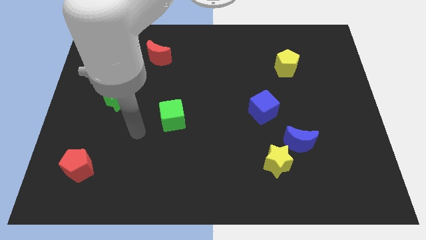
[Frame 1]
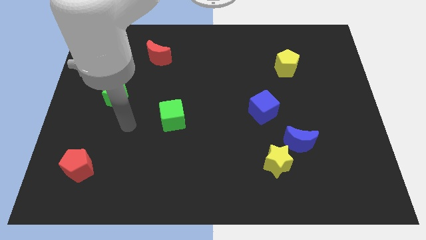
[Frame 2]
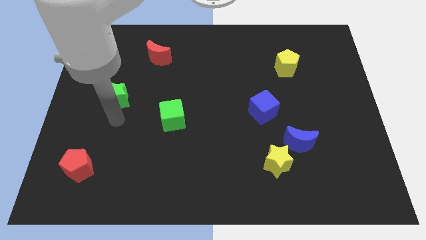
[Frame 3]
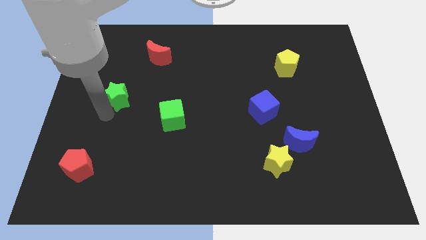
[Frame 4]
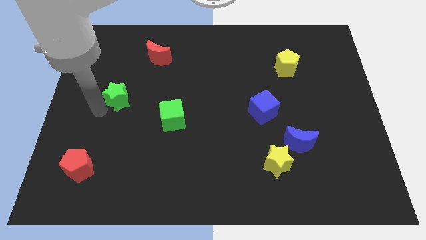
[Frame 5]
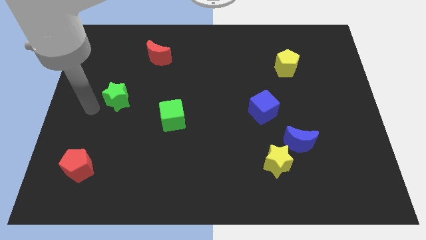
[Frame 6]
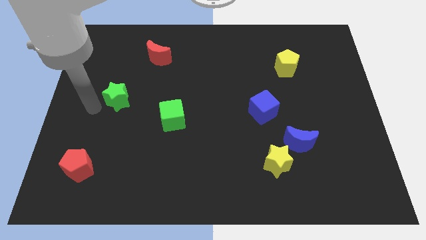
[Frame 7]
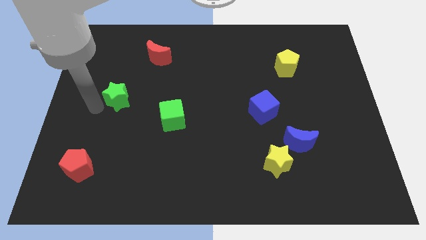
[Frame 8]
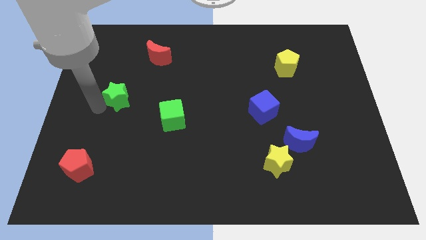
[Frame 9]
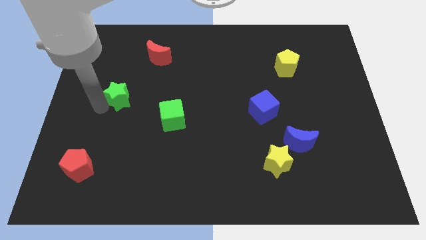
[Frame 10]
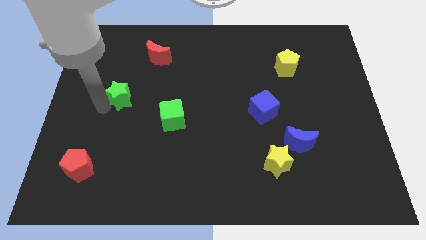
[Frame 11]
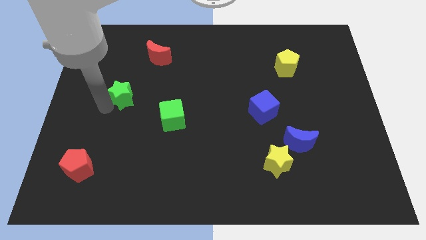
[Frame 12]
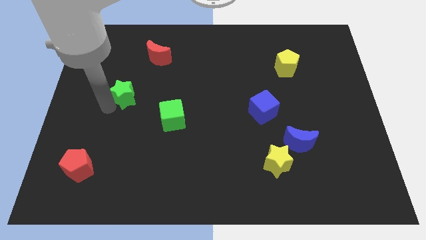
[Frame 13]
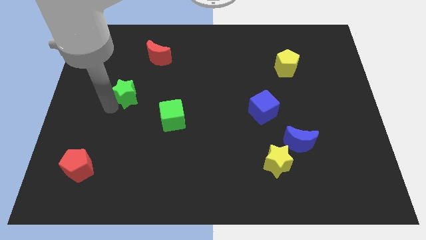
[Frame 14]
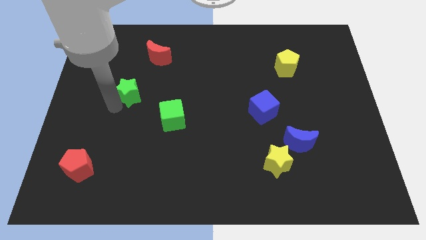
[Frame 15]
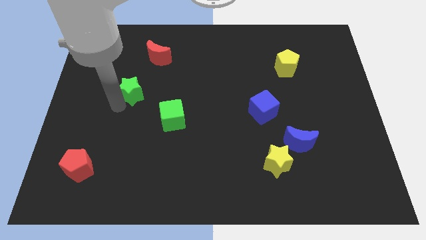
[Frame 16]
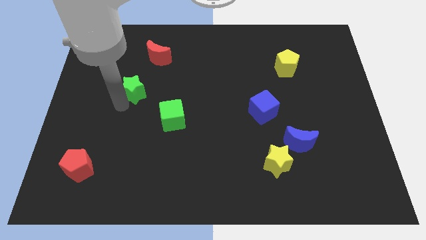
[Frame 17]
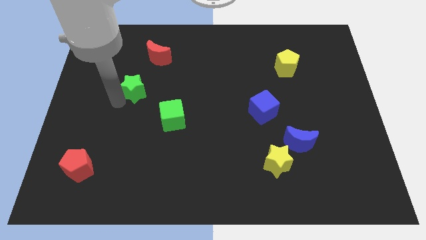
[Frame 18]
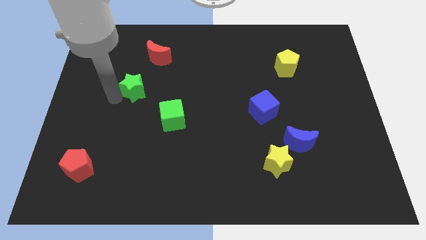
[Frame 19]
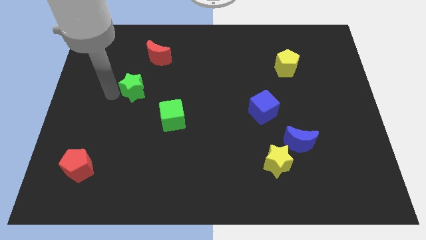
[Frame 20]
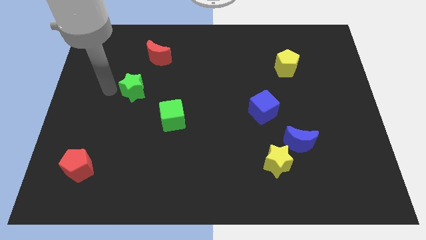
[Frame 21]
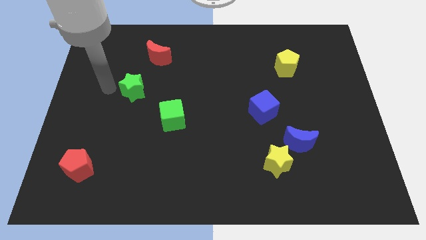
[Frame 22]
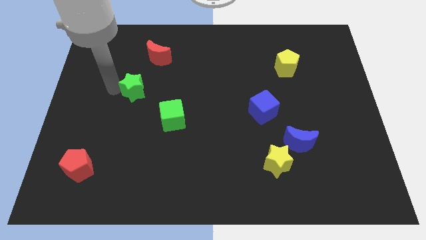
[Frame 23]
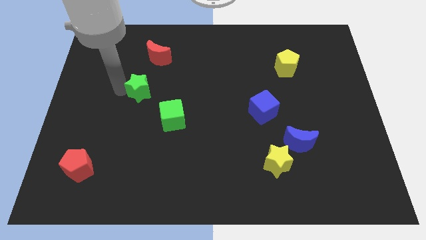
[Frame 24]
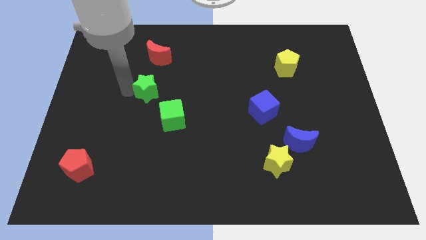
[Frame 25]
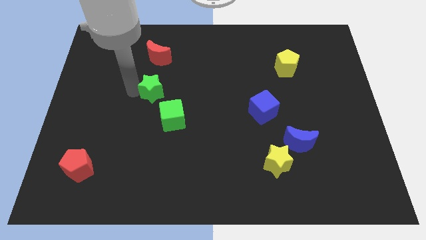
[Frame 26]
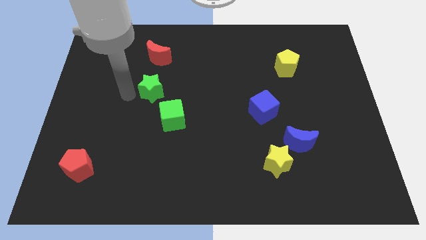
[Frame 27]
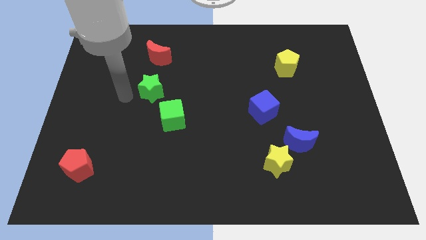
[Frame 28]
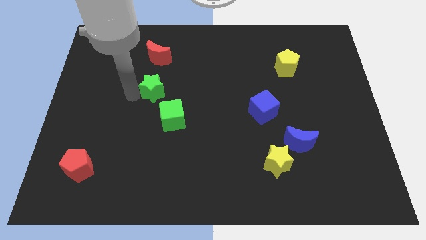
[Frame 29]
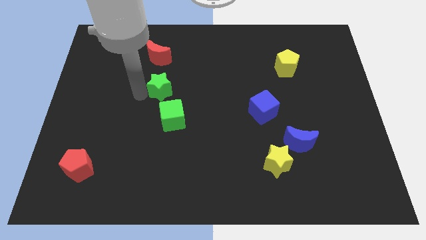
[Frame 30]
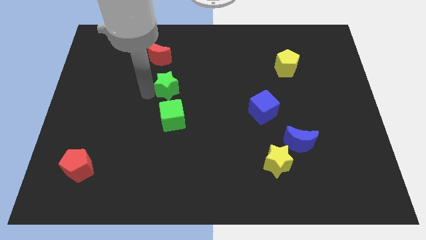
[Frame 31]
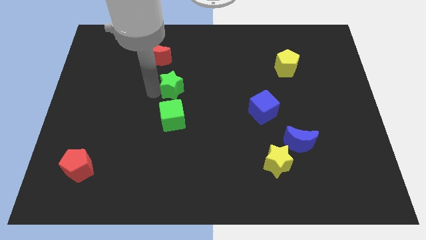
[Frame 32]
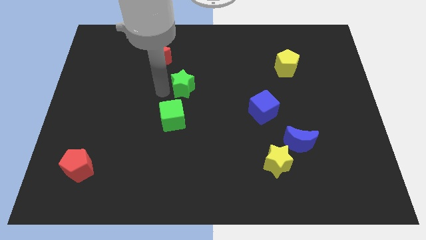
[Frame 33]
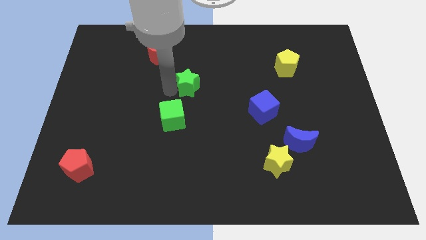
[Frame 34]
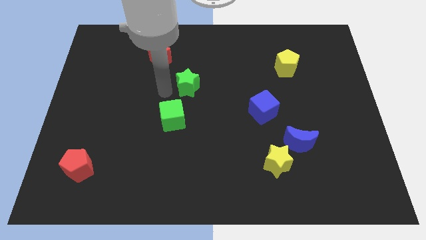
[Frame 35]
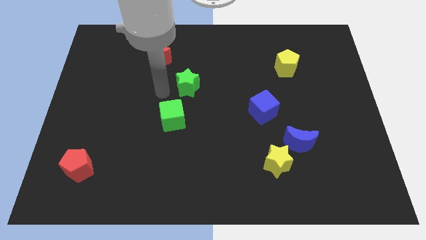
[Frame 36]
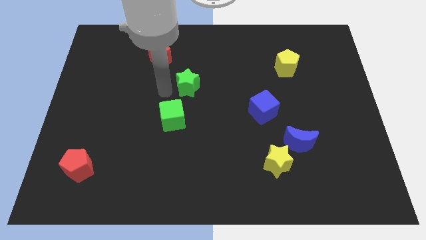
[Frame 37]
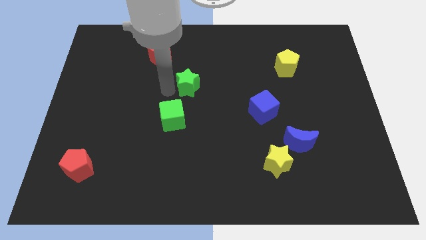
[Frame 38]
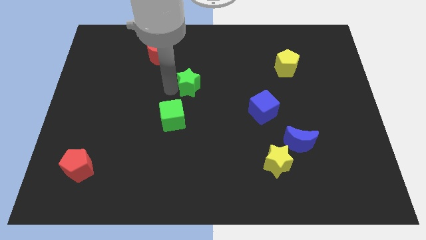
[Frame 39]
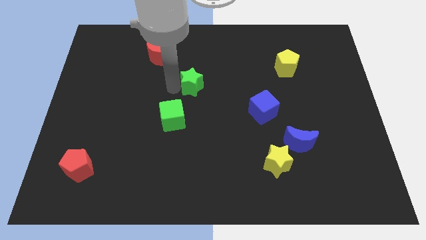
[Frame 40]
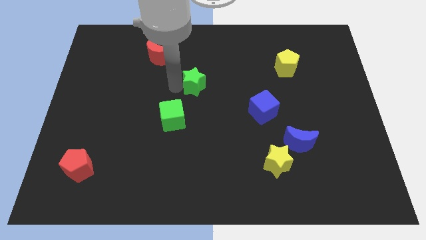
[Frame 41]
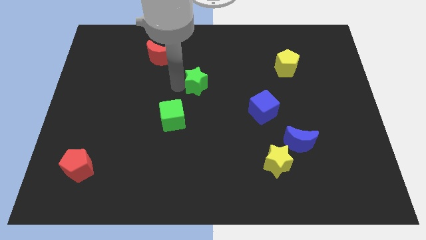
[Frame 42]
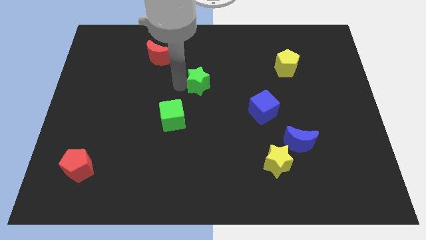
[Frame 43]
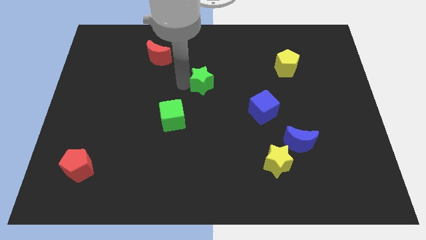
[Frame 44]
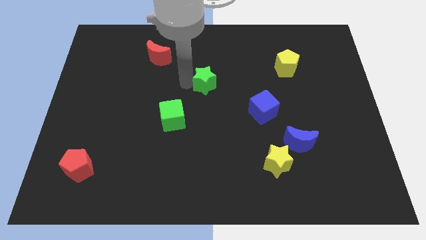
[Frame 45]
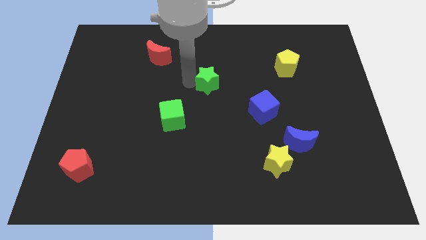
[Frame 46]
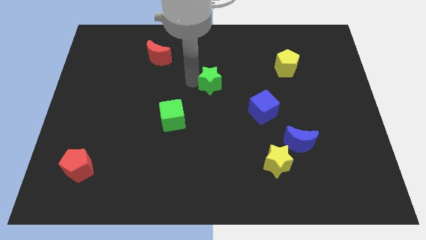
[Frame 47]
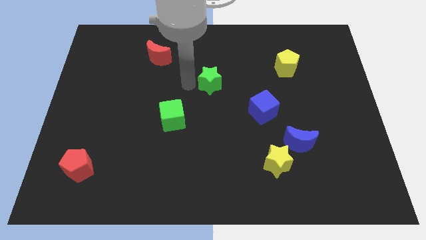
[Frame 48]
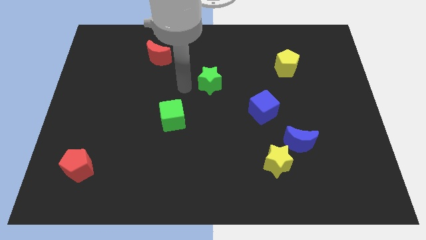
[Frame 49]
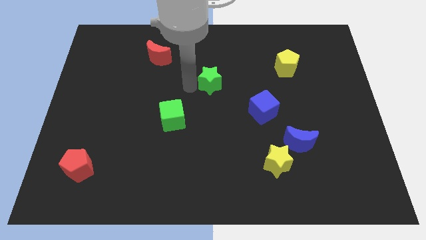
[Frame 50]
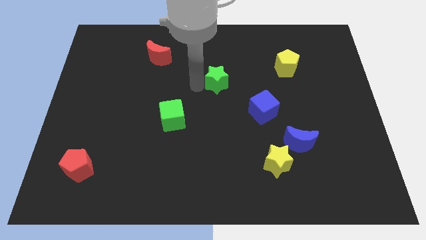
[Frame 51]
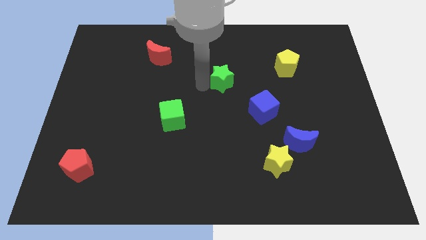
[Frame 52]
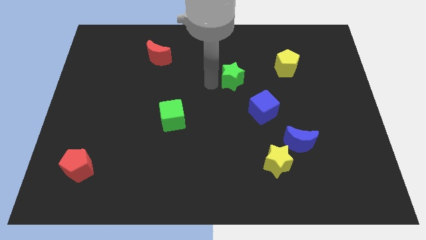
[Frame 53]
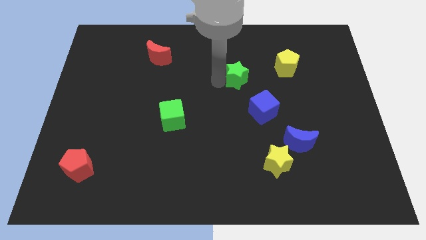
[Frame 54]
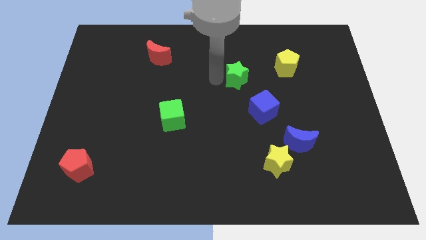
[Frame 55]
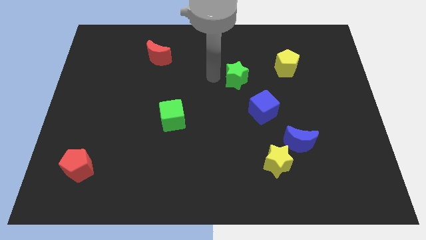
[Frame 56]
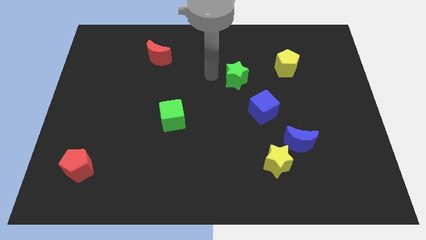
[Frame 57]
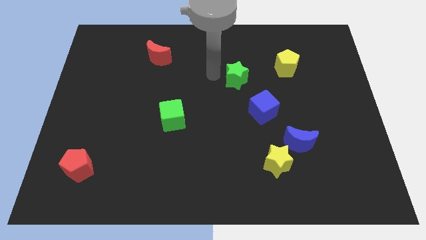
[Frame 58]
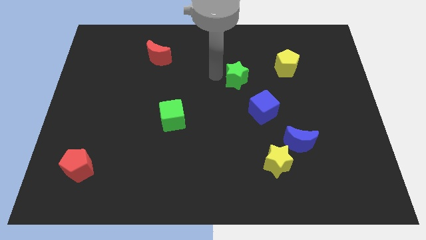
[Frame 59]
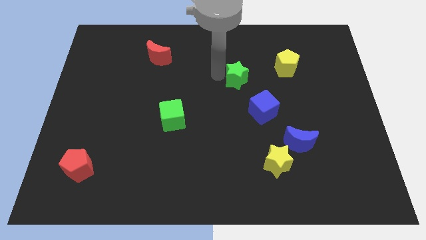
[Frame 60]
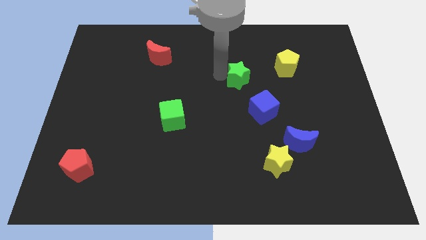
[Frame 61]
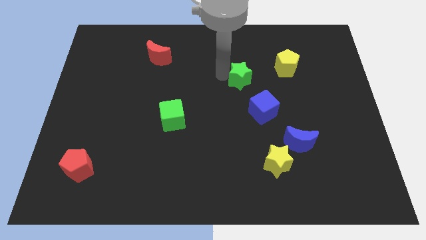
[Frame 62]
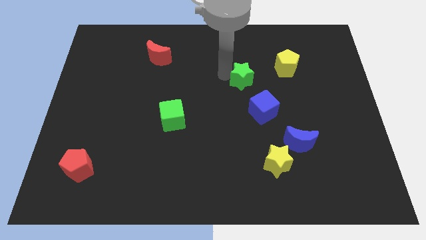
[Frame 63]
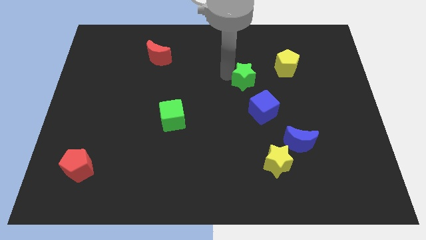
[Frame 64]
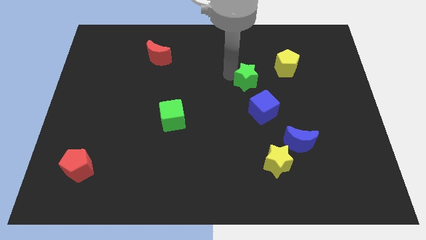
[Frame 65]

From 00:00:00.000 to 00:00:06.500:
move the green star to the bottom left of the yellow pentagon
